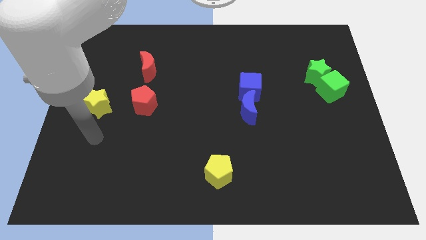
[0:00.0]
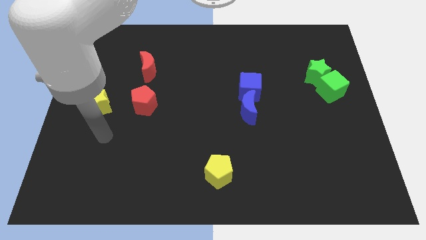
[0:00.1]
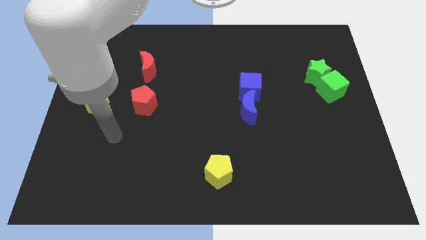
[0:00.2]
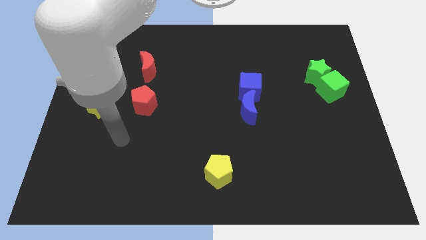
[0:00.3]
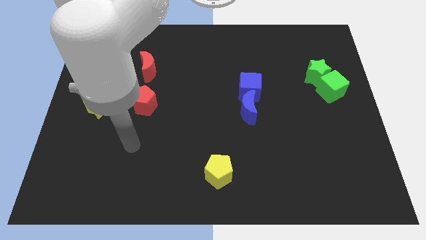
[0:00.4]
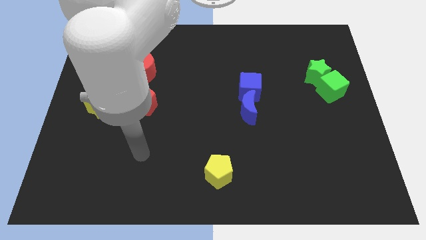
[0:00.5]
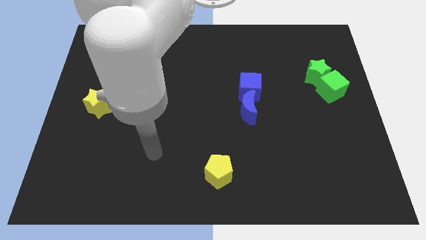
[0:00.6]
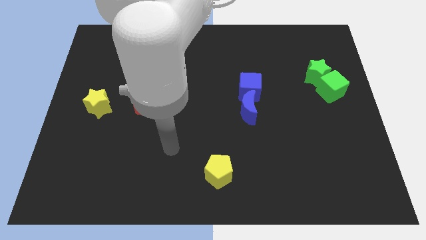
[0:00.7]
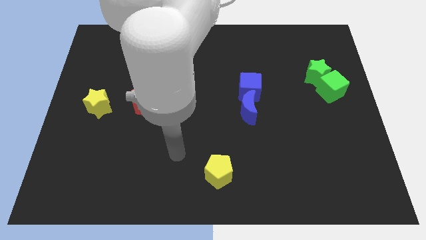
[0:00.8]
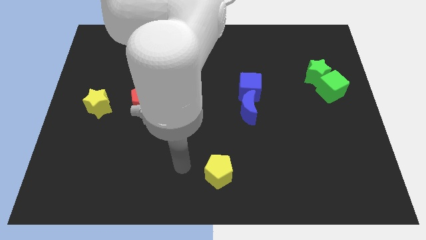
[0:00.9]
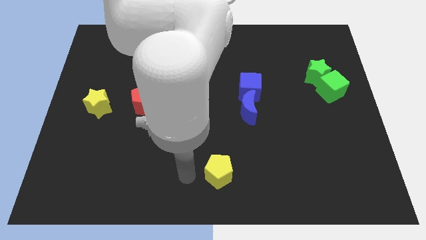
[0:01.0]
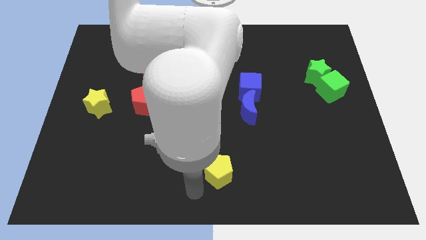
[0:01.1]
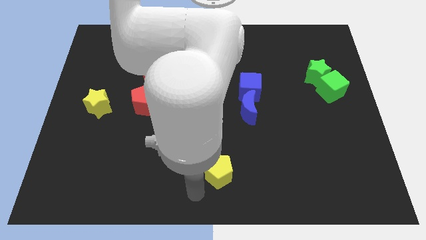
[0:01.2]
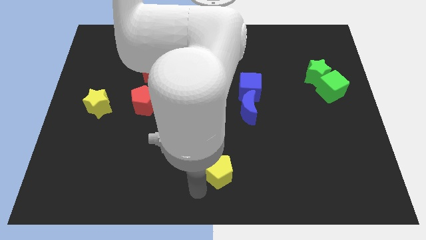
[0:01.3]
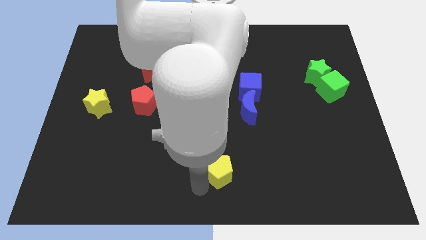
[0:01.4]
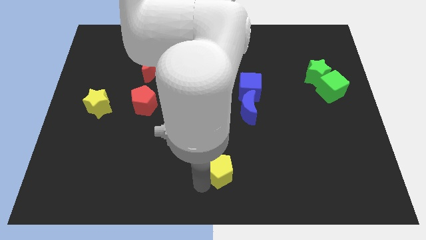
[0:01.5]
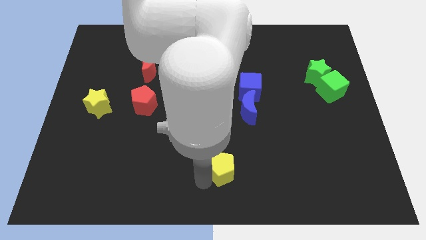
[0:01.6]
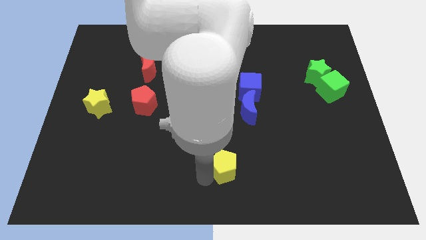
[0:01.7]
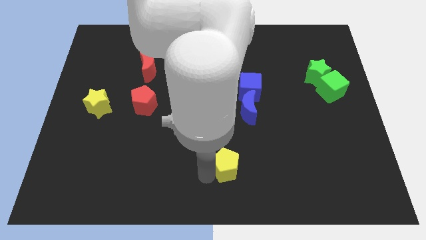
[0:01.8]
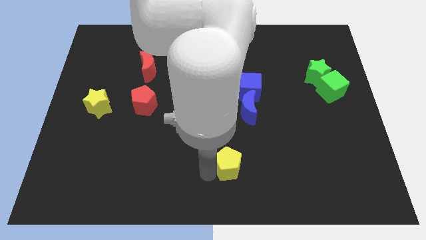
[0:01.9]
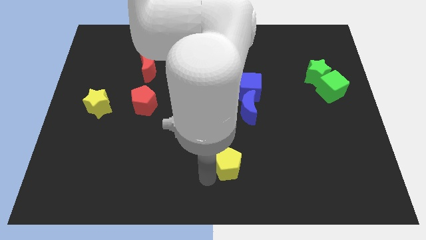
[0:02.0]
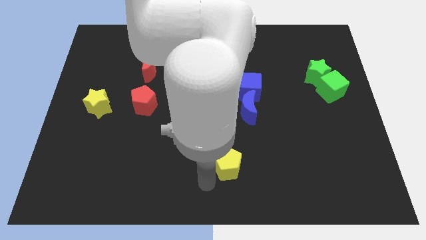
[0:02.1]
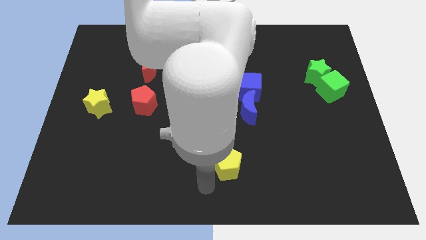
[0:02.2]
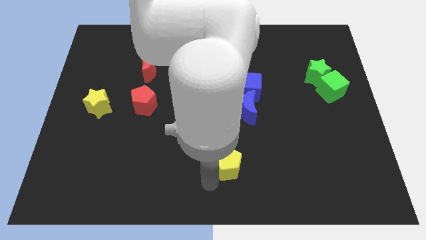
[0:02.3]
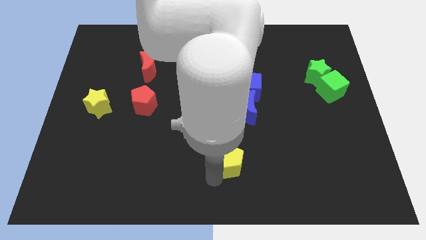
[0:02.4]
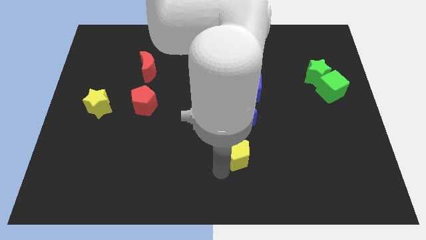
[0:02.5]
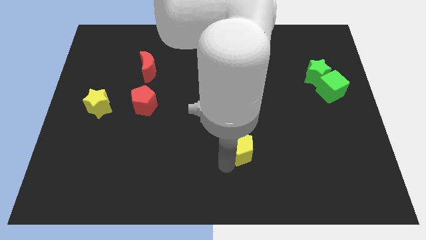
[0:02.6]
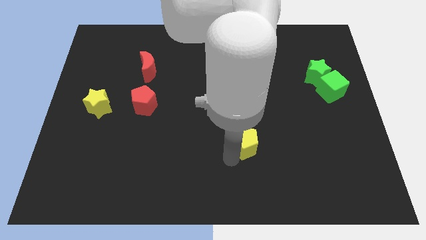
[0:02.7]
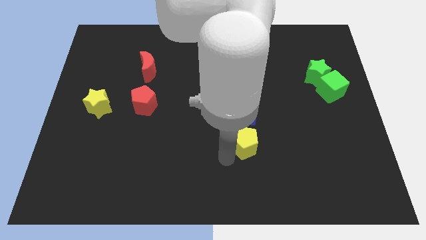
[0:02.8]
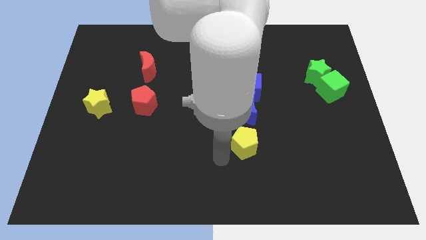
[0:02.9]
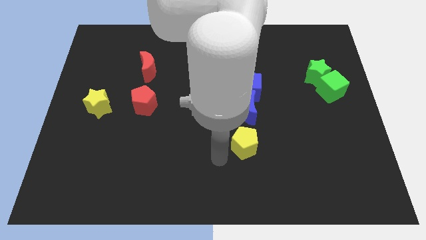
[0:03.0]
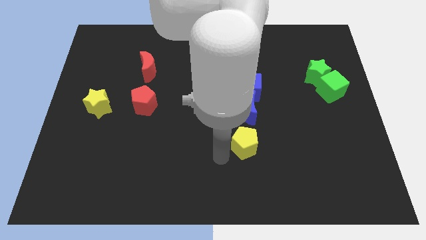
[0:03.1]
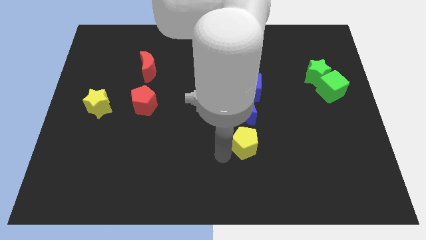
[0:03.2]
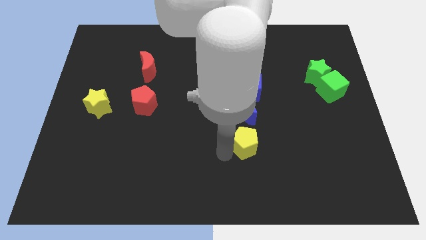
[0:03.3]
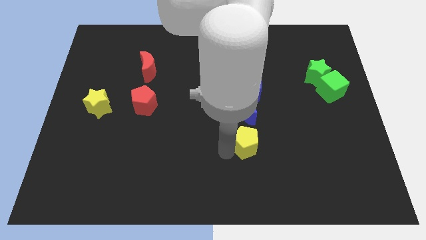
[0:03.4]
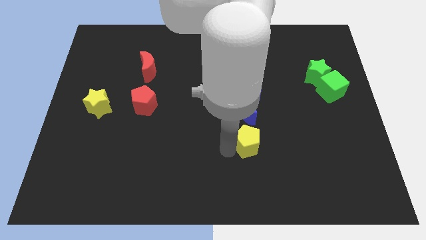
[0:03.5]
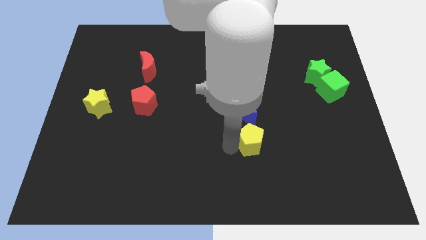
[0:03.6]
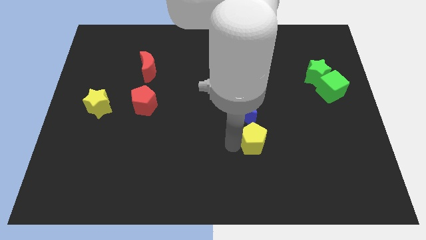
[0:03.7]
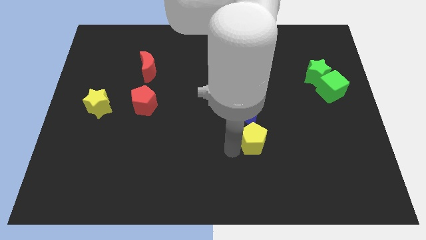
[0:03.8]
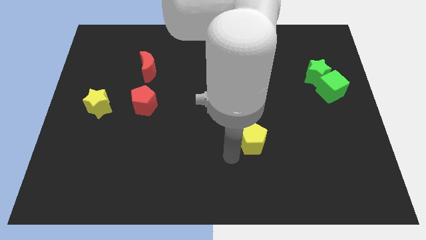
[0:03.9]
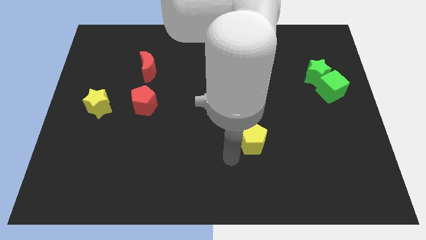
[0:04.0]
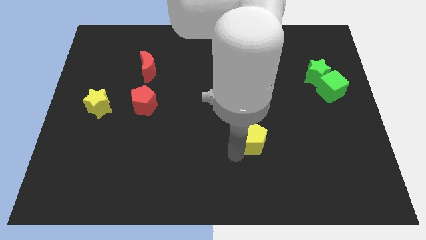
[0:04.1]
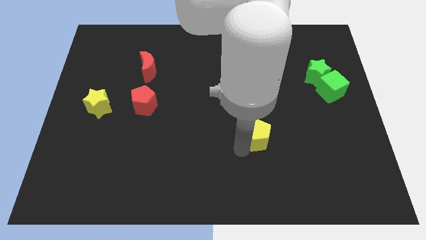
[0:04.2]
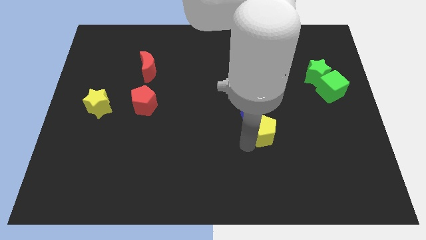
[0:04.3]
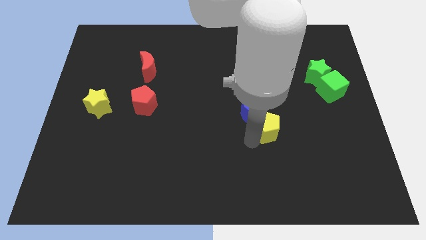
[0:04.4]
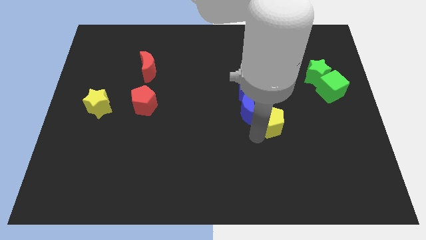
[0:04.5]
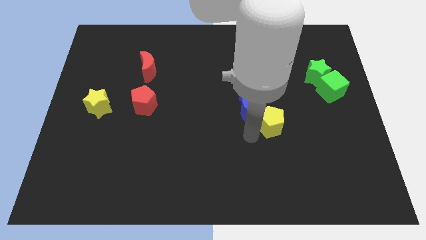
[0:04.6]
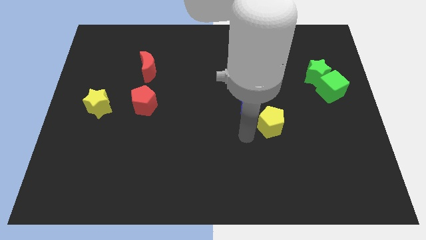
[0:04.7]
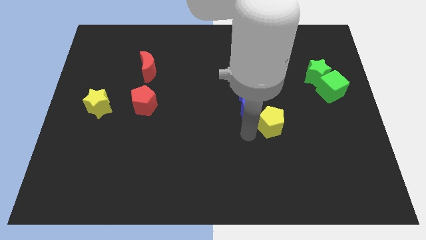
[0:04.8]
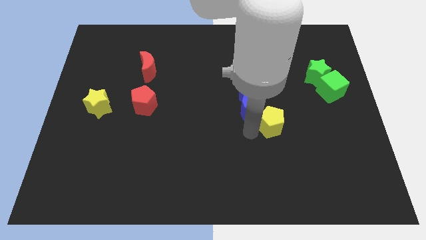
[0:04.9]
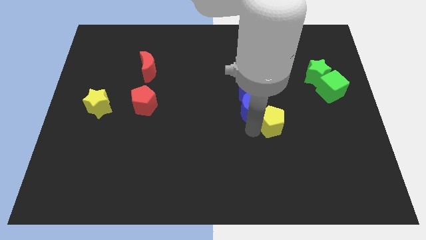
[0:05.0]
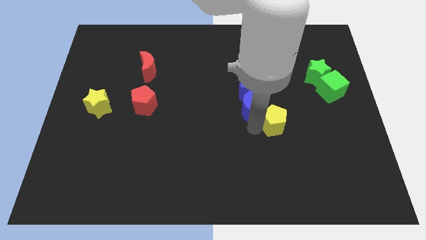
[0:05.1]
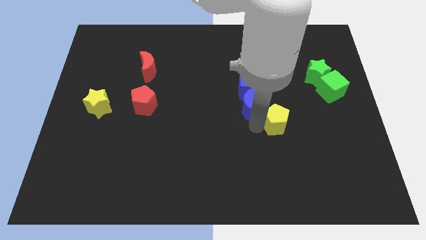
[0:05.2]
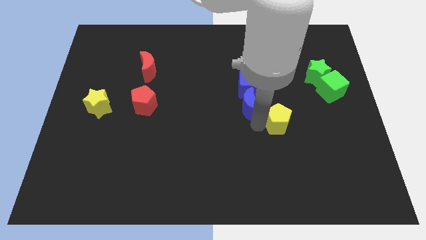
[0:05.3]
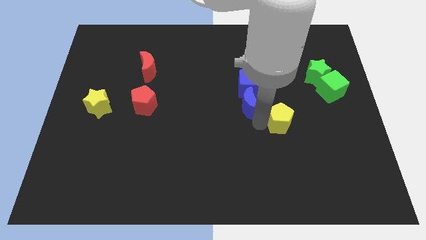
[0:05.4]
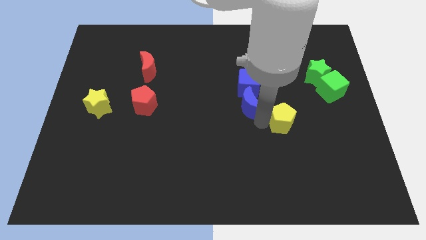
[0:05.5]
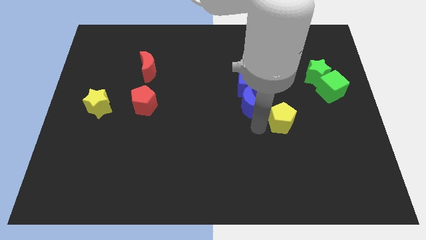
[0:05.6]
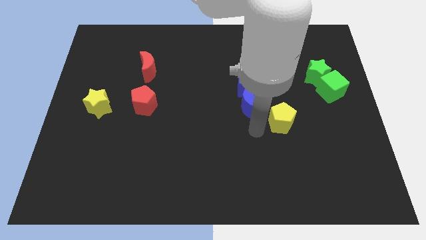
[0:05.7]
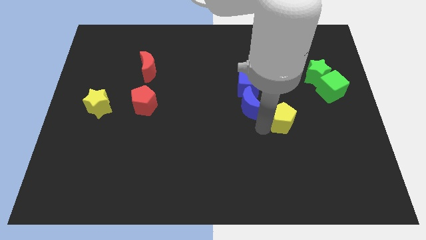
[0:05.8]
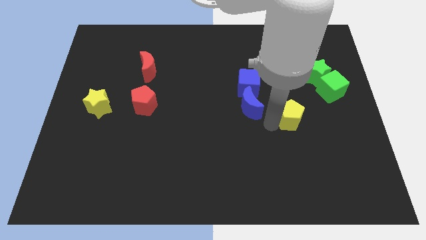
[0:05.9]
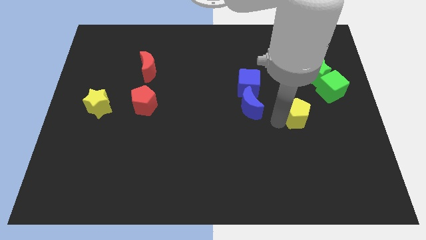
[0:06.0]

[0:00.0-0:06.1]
slide the yellow pentagon diagonally down and to the left of the green cube

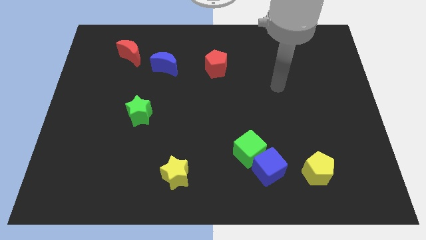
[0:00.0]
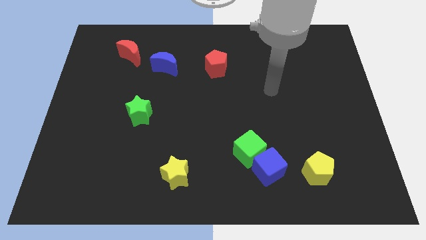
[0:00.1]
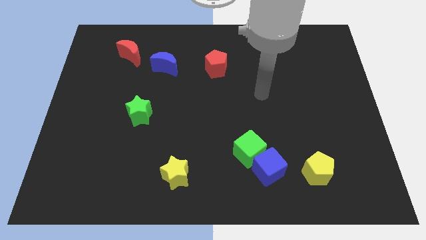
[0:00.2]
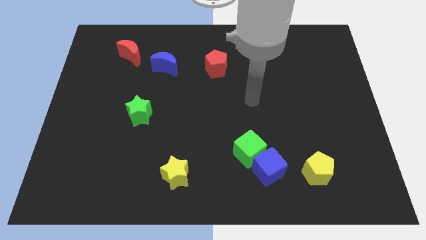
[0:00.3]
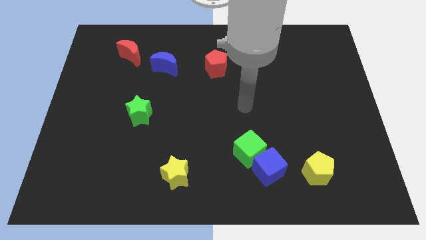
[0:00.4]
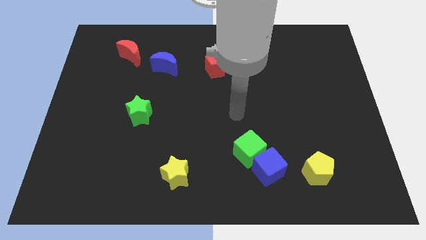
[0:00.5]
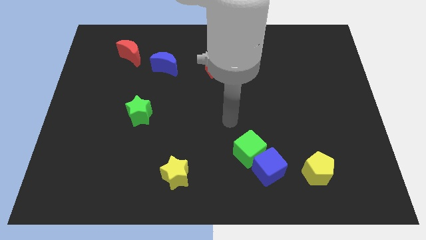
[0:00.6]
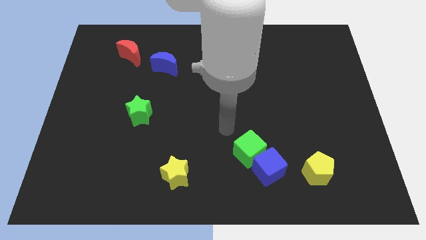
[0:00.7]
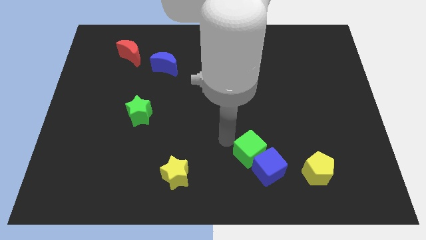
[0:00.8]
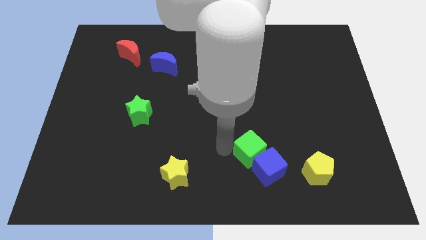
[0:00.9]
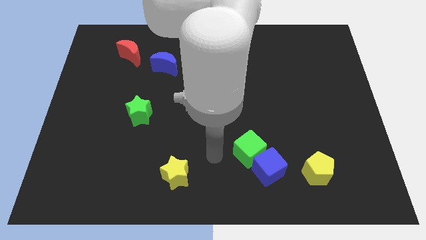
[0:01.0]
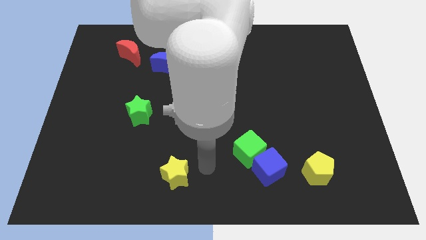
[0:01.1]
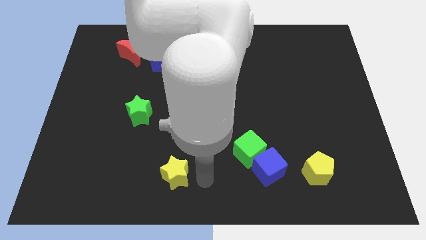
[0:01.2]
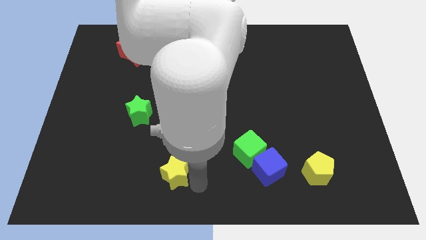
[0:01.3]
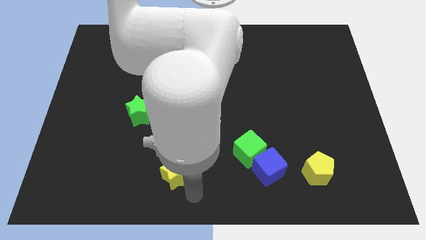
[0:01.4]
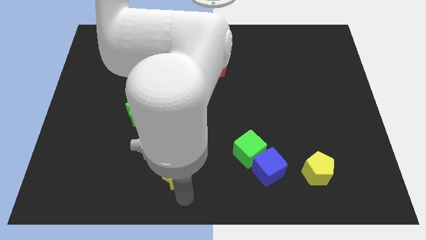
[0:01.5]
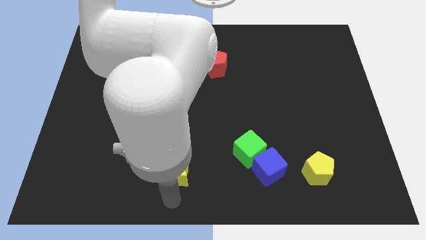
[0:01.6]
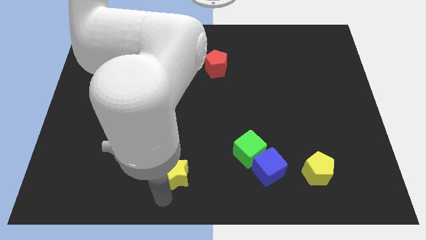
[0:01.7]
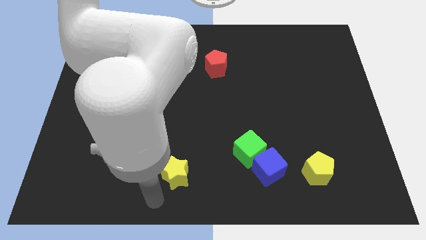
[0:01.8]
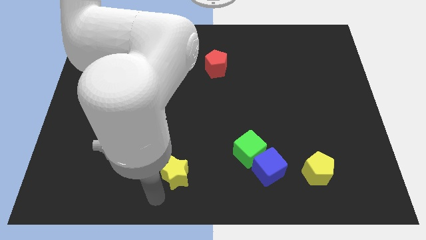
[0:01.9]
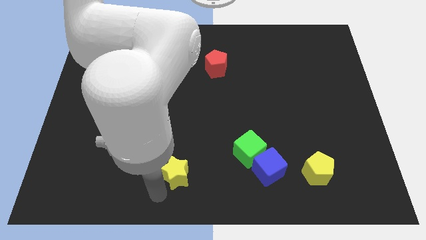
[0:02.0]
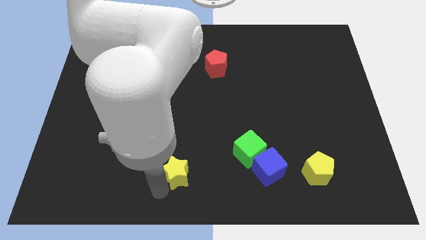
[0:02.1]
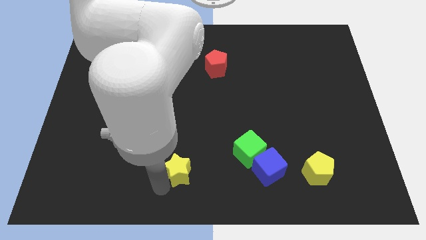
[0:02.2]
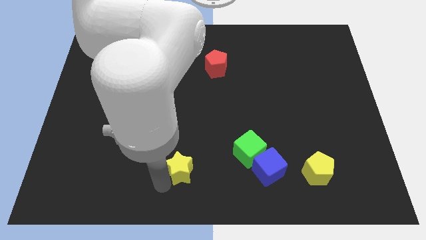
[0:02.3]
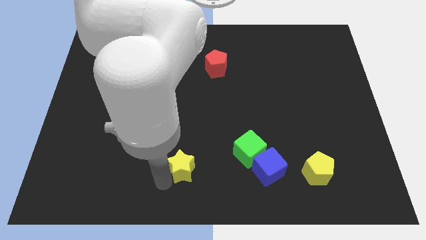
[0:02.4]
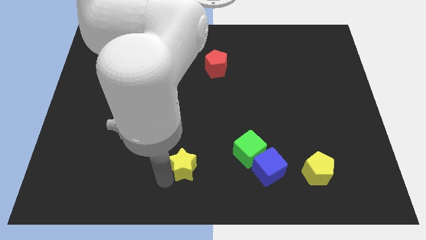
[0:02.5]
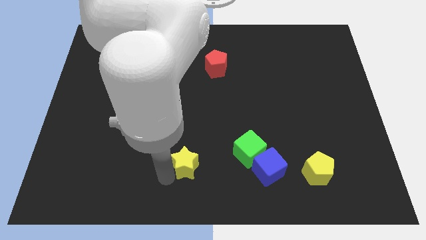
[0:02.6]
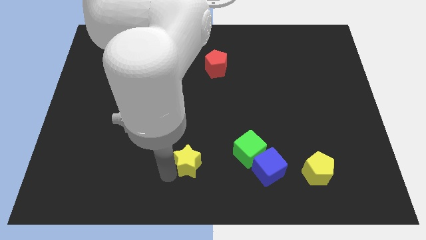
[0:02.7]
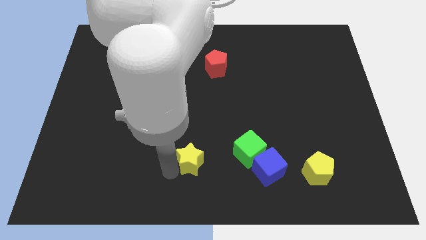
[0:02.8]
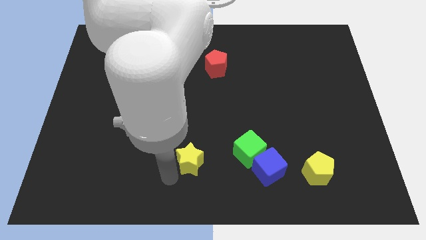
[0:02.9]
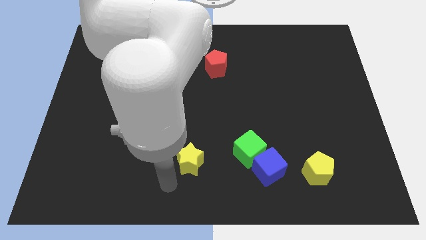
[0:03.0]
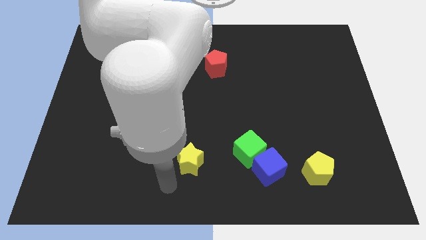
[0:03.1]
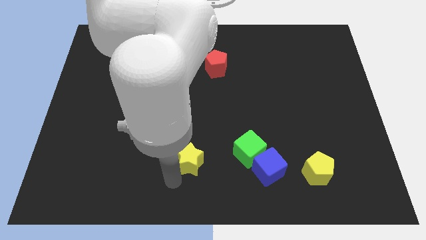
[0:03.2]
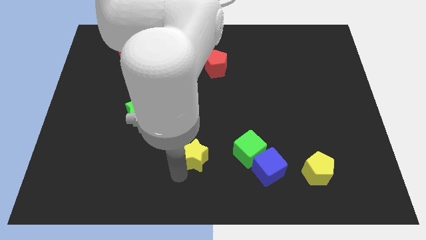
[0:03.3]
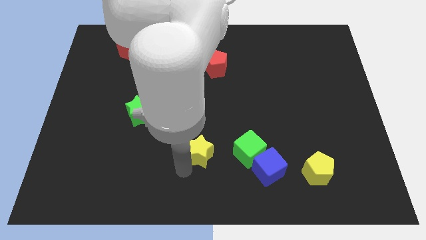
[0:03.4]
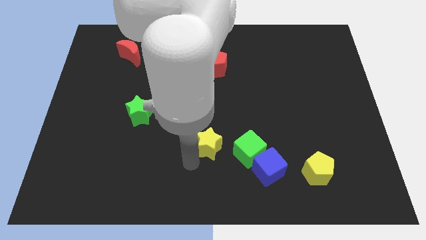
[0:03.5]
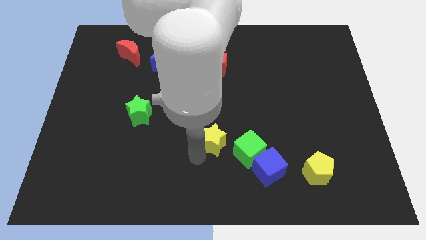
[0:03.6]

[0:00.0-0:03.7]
push the yellow star to the top left of the green cube
